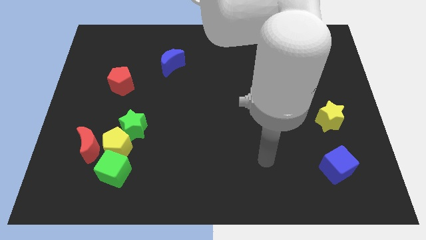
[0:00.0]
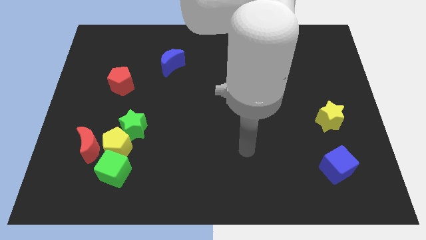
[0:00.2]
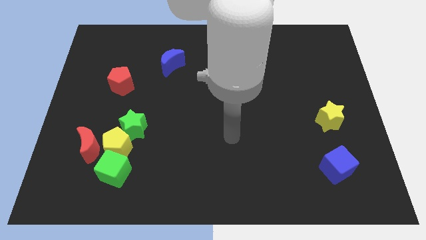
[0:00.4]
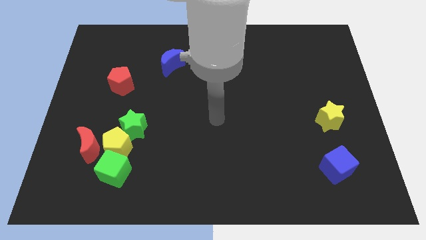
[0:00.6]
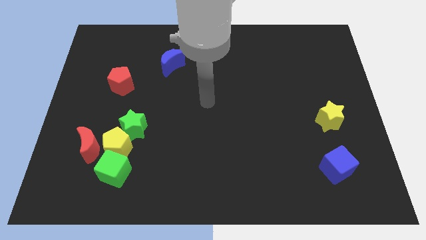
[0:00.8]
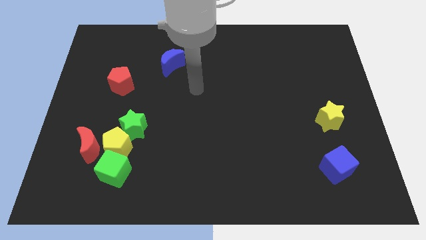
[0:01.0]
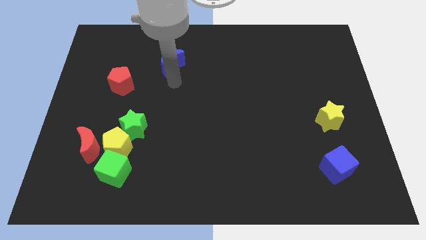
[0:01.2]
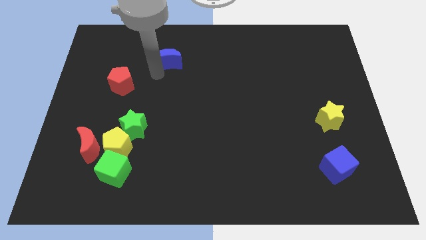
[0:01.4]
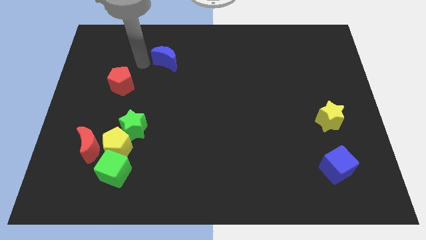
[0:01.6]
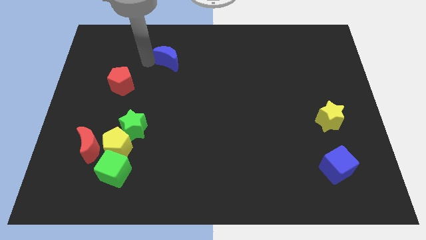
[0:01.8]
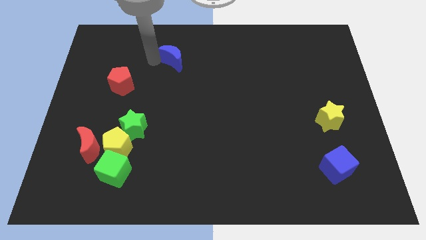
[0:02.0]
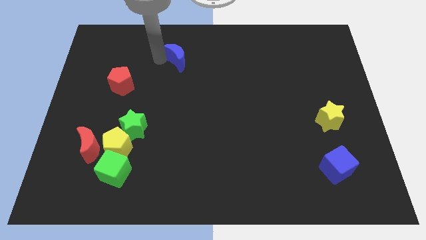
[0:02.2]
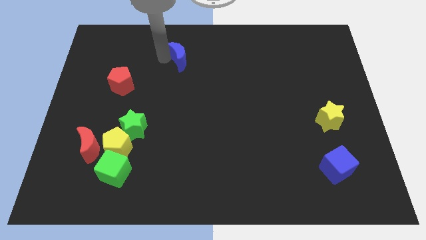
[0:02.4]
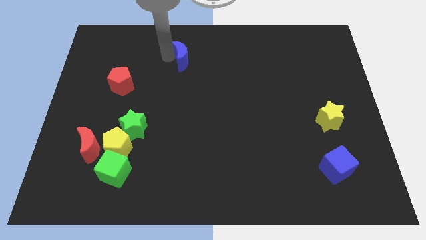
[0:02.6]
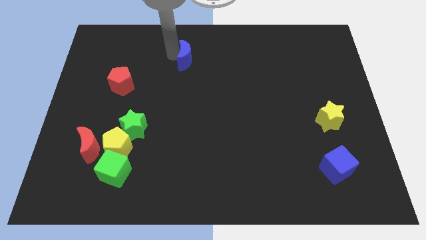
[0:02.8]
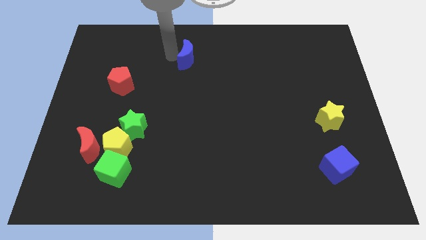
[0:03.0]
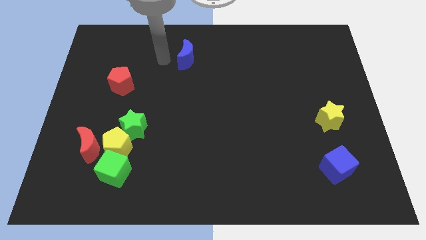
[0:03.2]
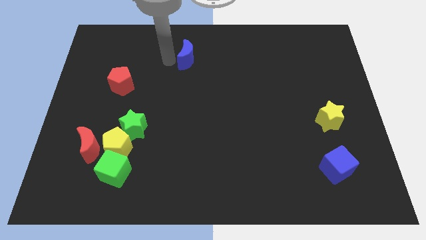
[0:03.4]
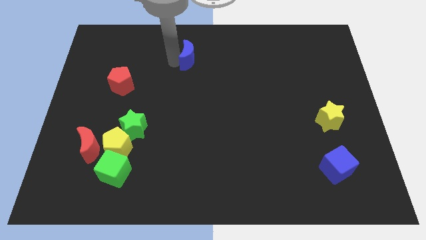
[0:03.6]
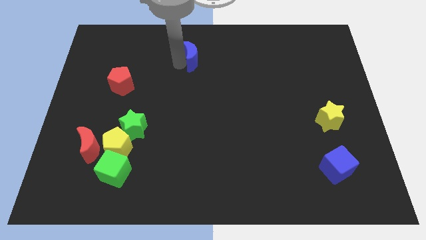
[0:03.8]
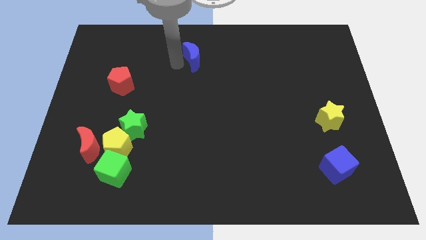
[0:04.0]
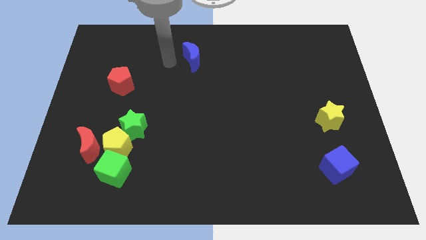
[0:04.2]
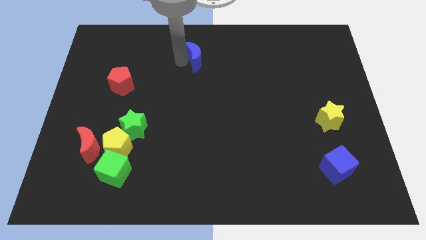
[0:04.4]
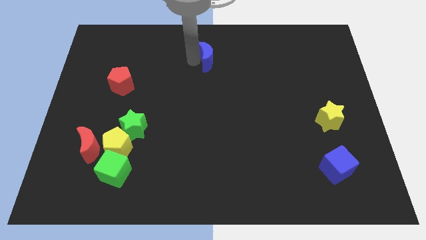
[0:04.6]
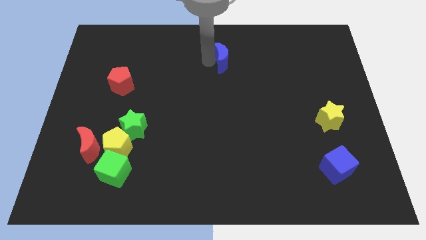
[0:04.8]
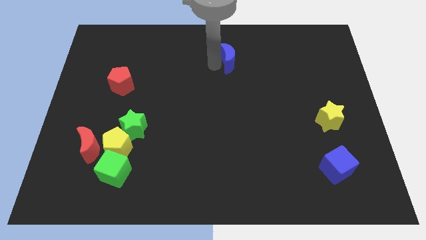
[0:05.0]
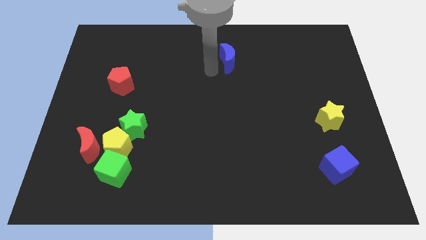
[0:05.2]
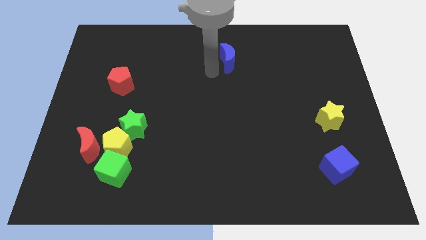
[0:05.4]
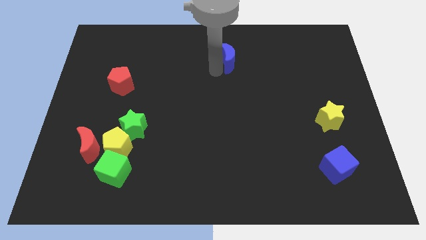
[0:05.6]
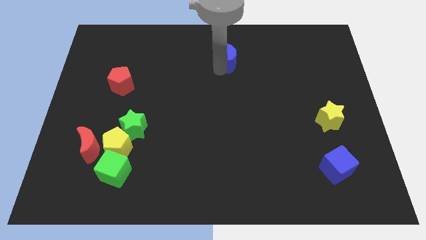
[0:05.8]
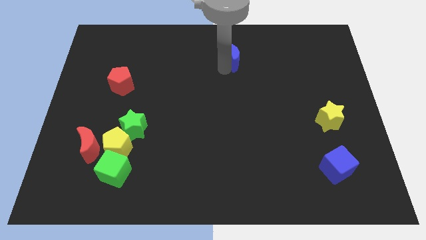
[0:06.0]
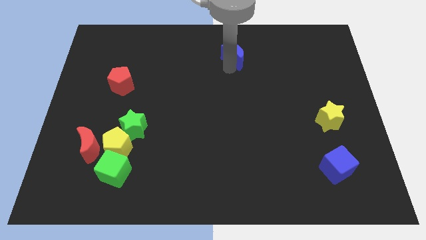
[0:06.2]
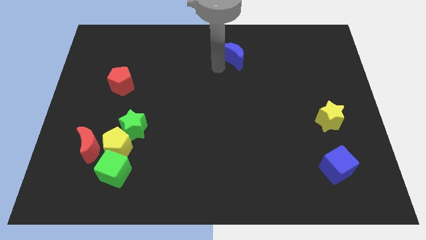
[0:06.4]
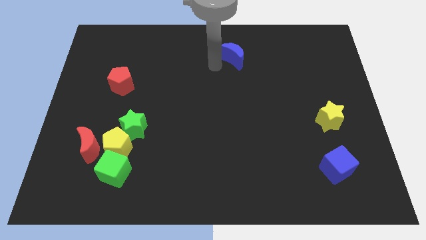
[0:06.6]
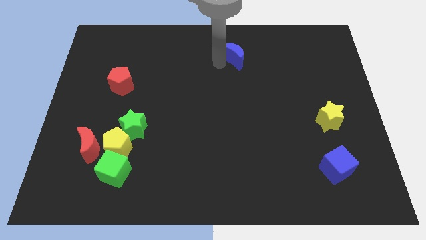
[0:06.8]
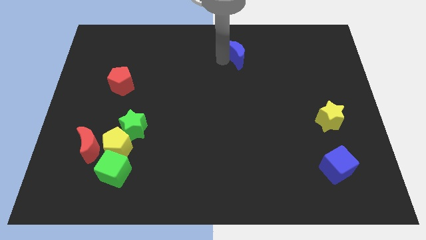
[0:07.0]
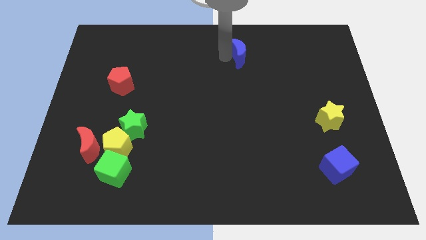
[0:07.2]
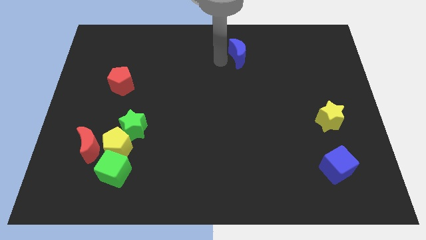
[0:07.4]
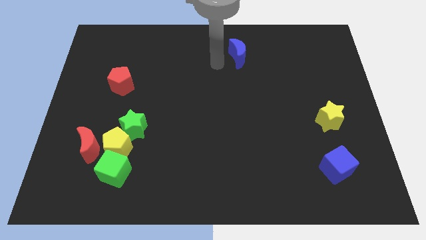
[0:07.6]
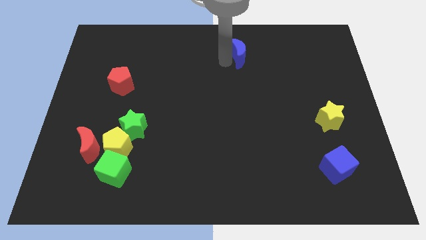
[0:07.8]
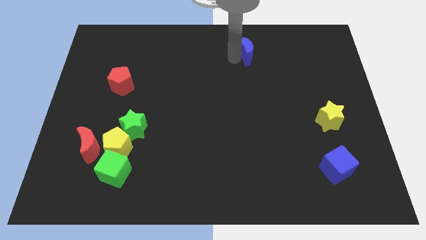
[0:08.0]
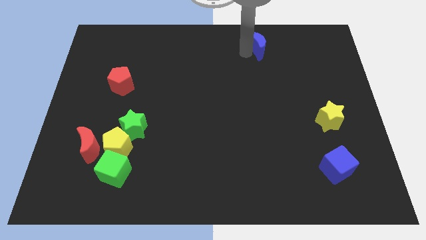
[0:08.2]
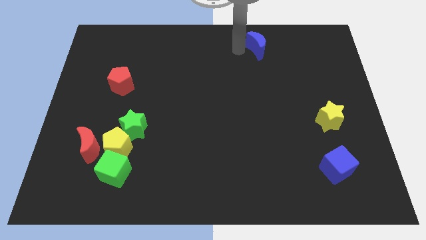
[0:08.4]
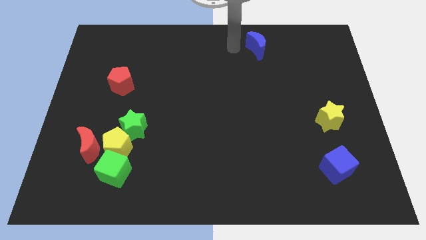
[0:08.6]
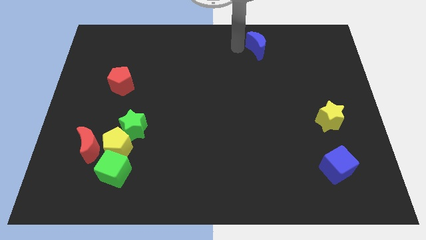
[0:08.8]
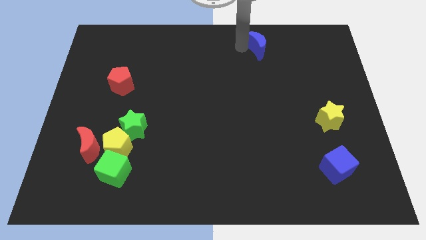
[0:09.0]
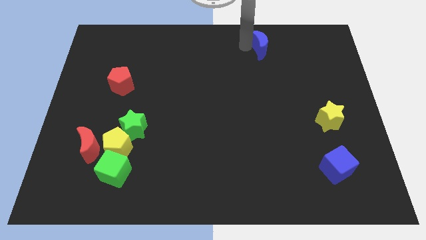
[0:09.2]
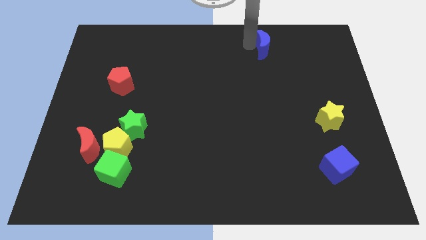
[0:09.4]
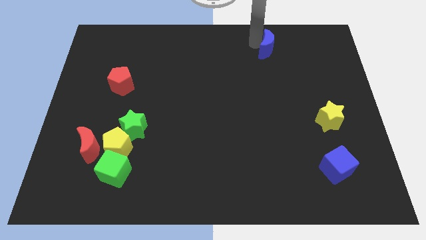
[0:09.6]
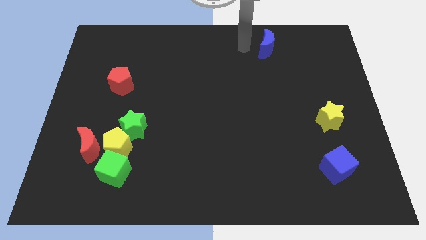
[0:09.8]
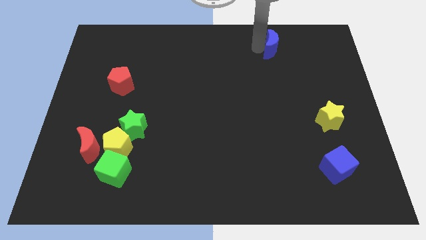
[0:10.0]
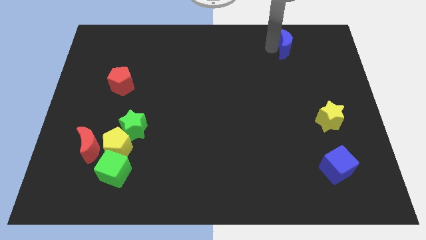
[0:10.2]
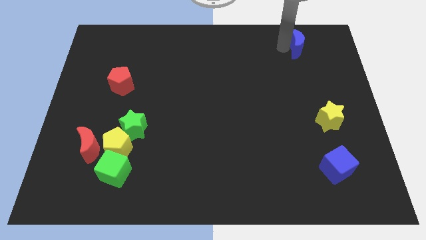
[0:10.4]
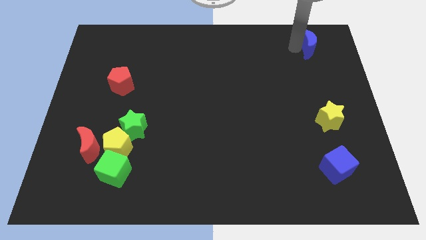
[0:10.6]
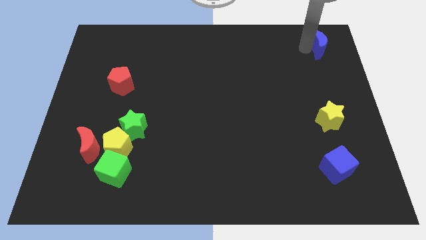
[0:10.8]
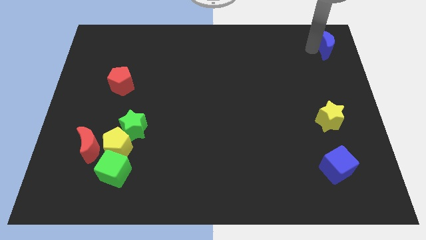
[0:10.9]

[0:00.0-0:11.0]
put the blue moon to the top right

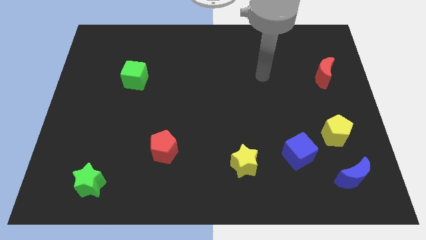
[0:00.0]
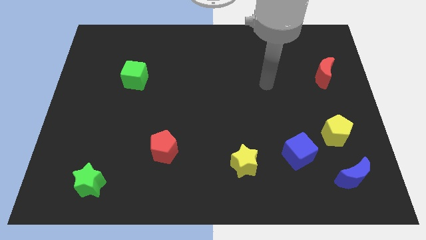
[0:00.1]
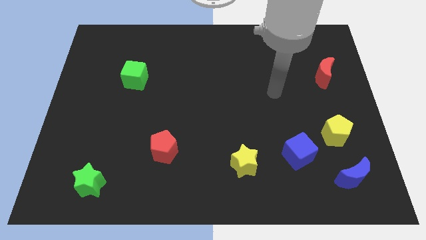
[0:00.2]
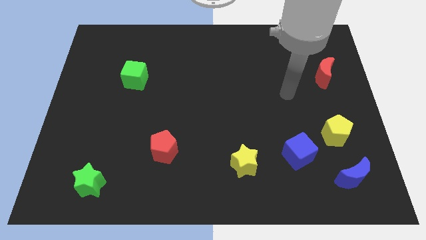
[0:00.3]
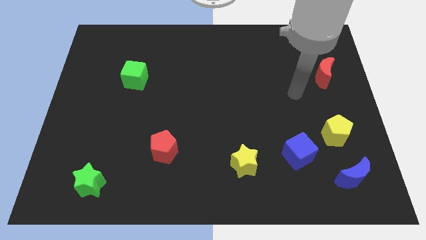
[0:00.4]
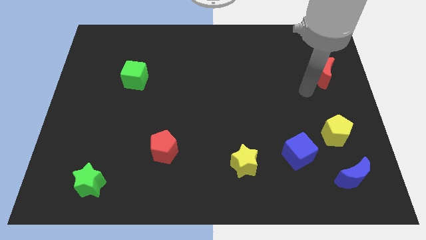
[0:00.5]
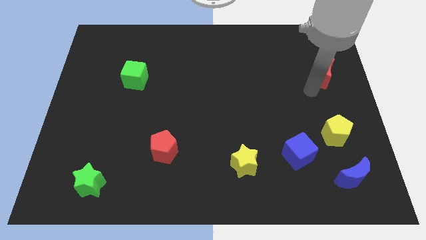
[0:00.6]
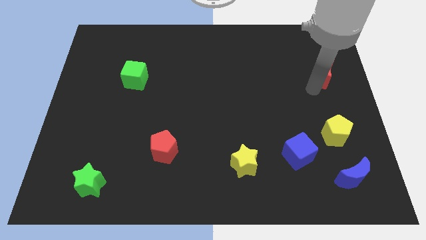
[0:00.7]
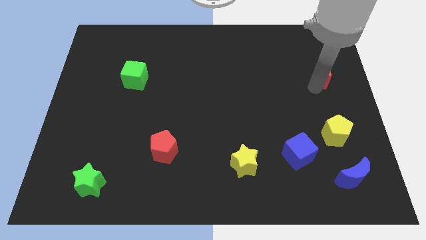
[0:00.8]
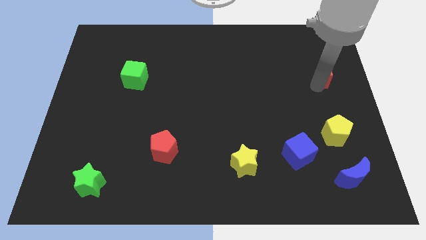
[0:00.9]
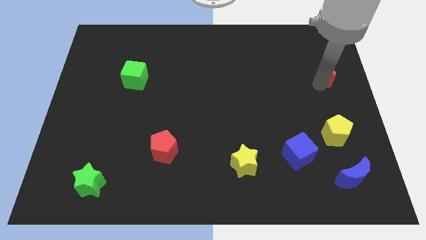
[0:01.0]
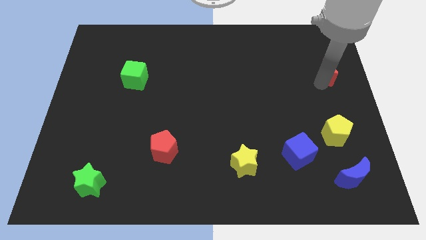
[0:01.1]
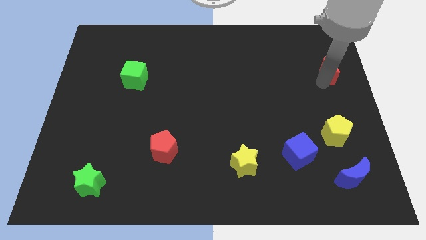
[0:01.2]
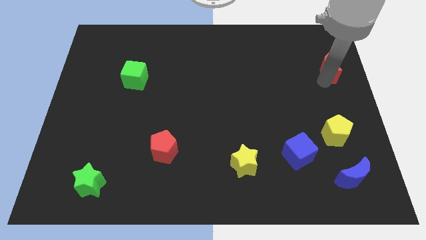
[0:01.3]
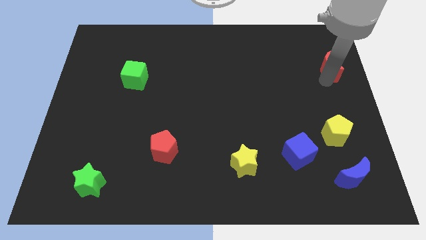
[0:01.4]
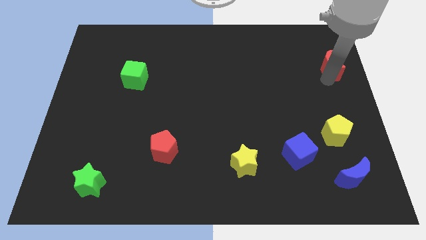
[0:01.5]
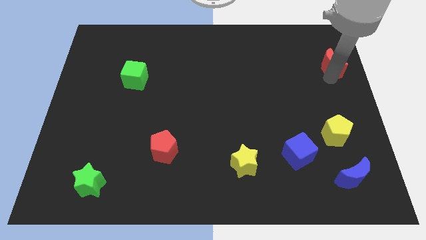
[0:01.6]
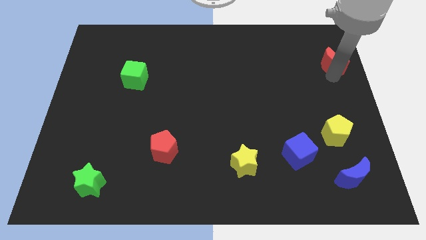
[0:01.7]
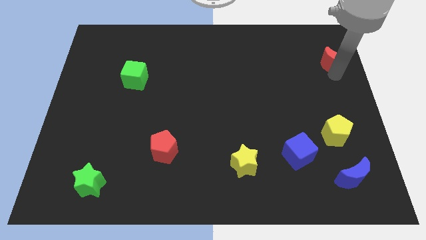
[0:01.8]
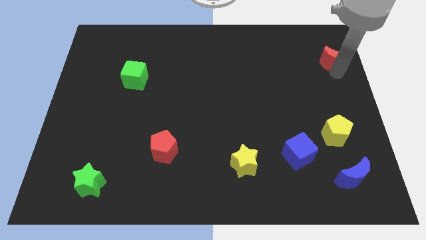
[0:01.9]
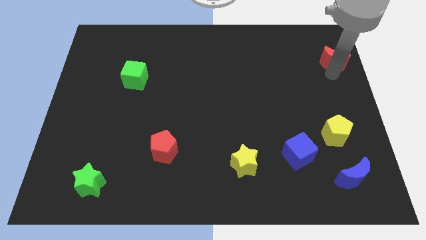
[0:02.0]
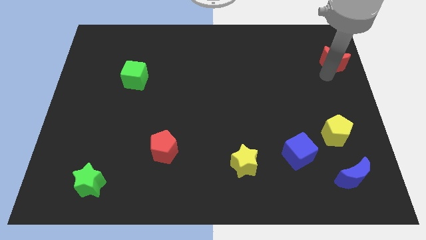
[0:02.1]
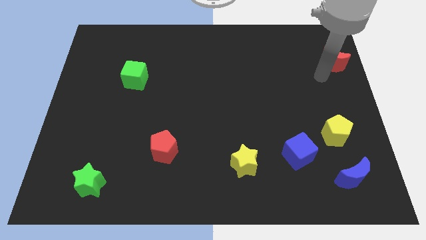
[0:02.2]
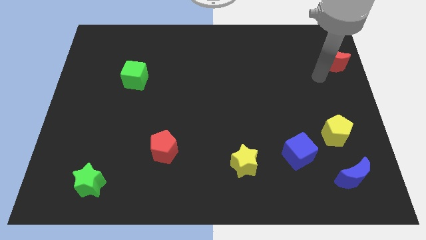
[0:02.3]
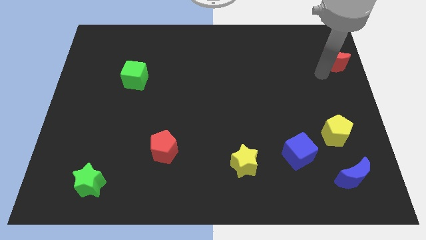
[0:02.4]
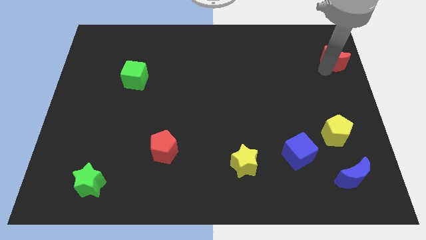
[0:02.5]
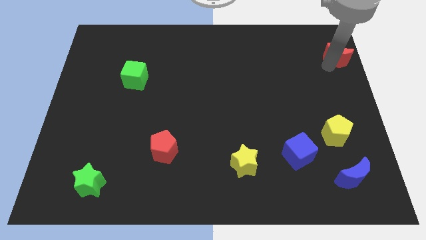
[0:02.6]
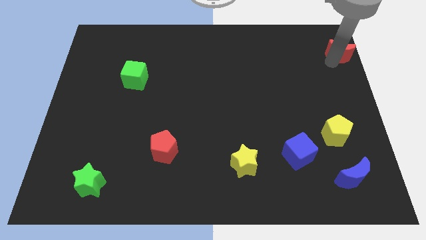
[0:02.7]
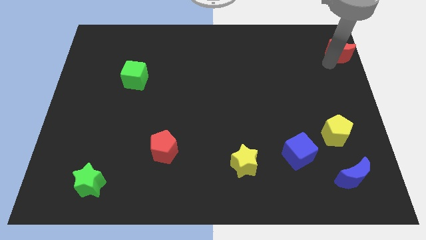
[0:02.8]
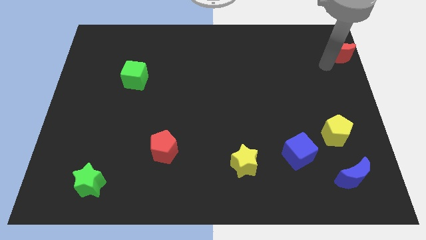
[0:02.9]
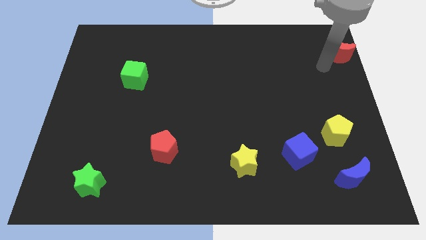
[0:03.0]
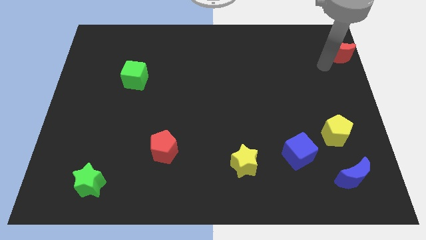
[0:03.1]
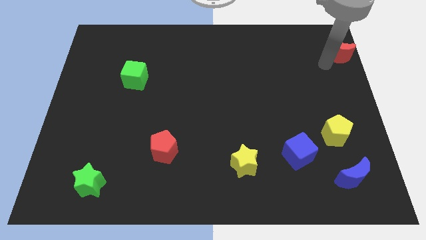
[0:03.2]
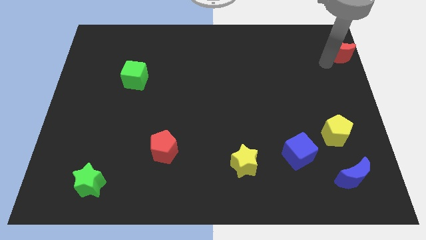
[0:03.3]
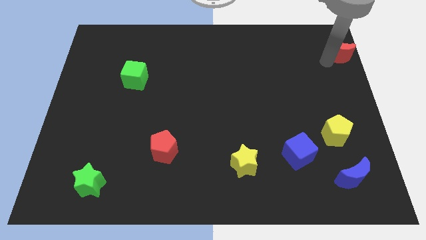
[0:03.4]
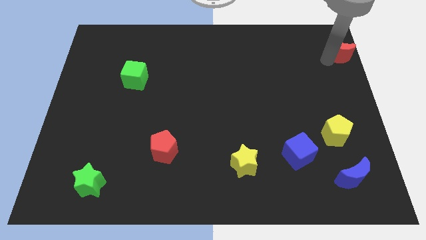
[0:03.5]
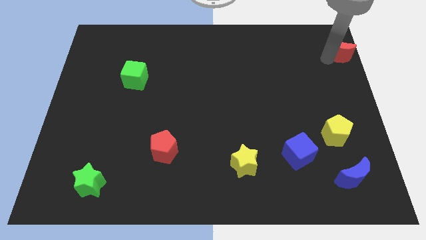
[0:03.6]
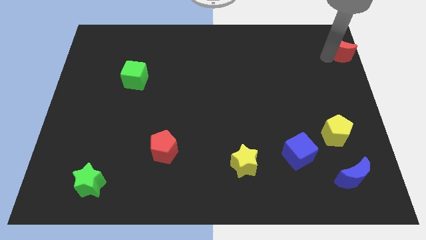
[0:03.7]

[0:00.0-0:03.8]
push the red moon to the top right of the board
